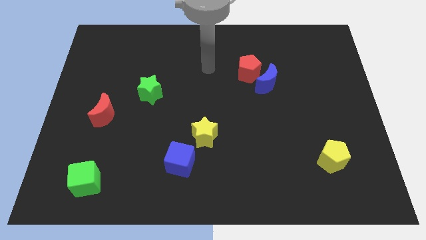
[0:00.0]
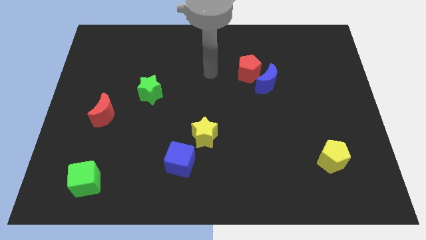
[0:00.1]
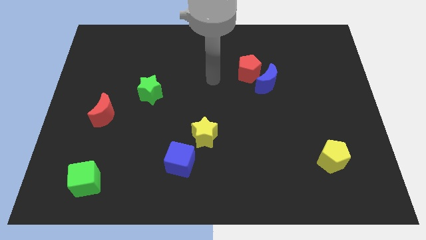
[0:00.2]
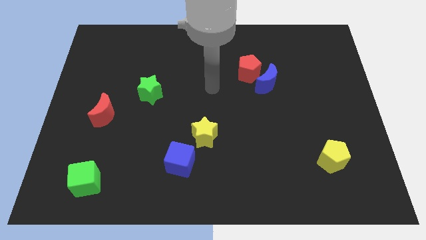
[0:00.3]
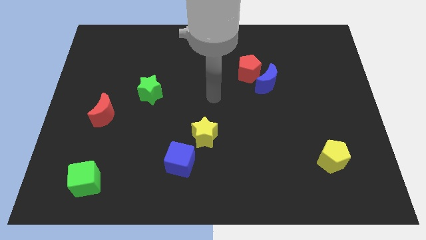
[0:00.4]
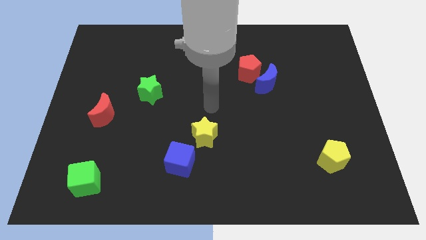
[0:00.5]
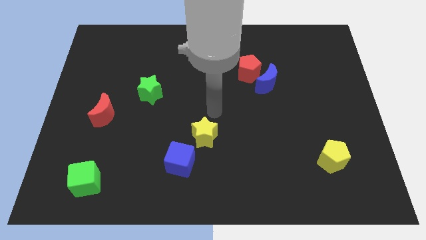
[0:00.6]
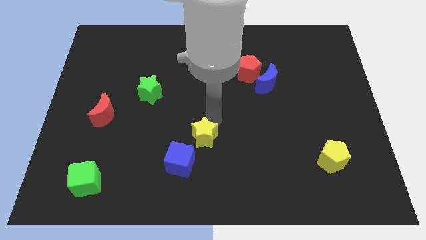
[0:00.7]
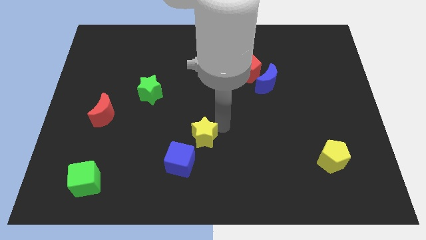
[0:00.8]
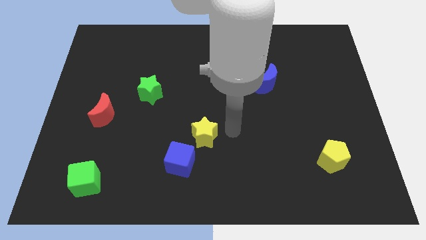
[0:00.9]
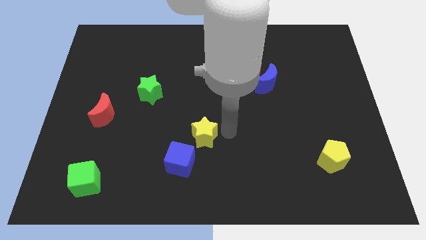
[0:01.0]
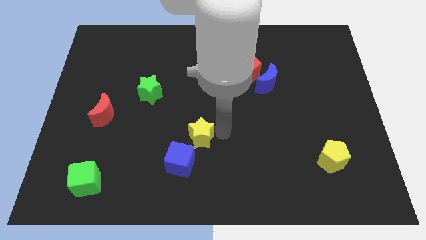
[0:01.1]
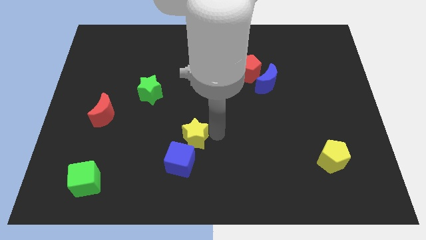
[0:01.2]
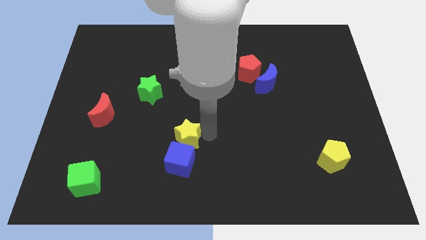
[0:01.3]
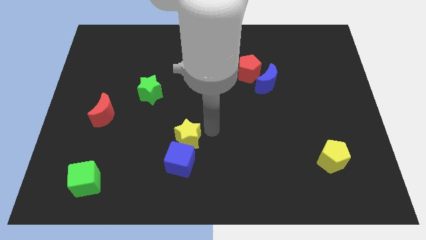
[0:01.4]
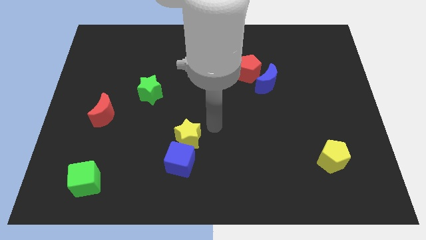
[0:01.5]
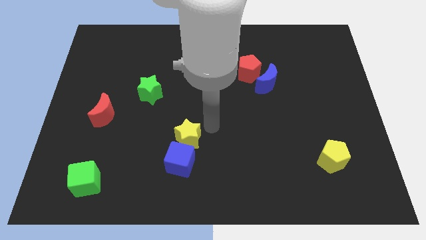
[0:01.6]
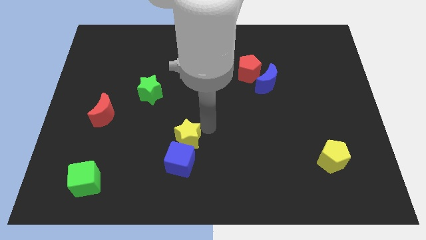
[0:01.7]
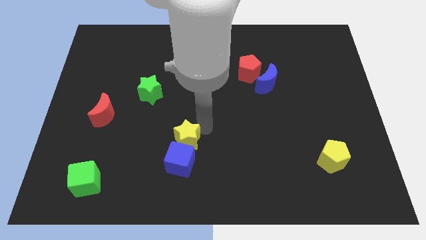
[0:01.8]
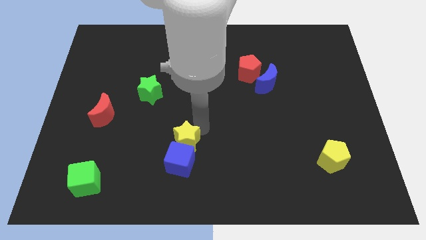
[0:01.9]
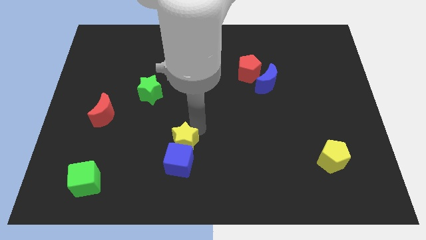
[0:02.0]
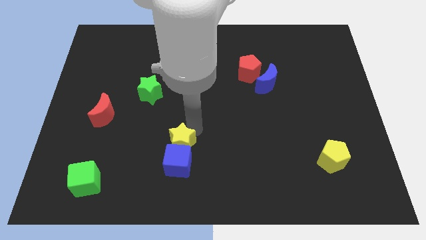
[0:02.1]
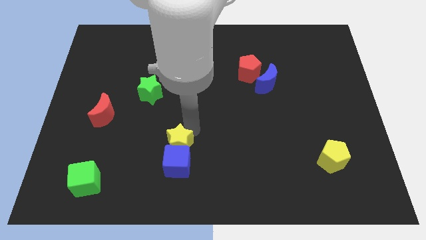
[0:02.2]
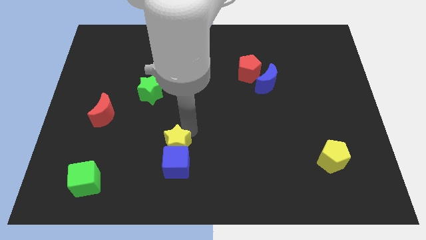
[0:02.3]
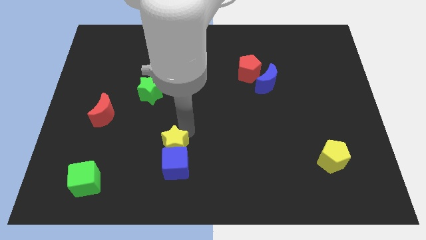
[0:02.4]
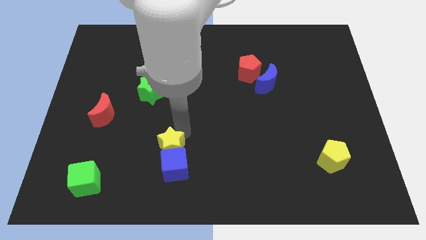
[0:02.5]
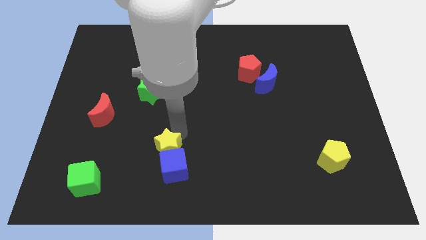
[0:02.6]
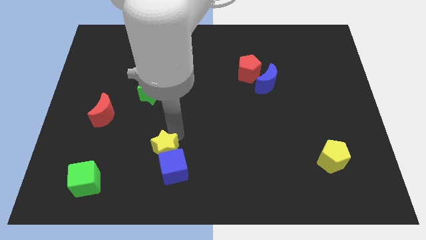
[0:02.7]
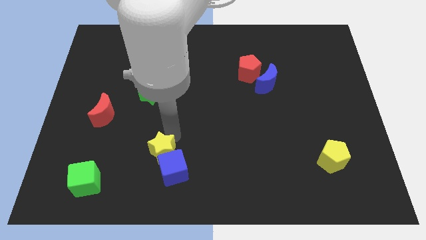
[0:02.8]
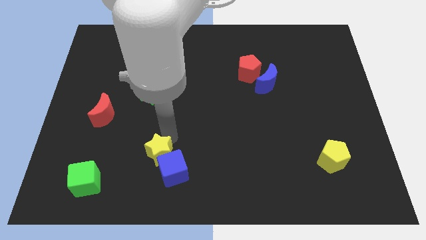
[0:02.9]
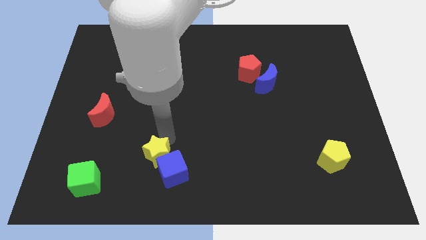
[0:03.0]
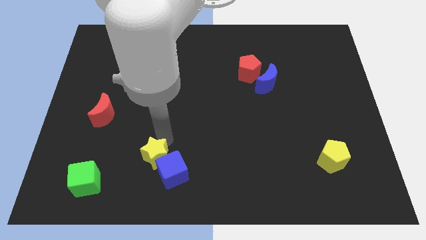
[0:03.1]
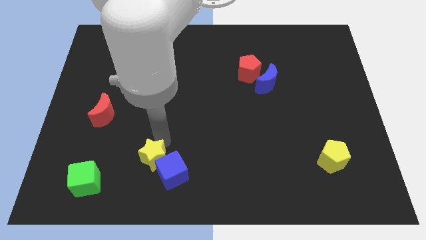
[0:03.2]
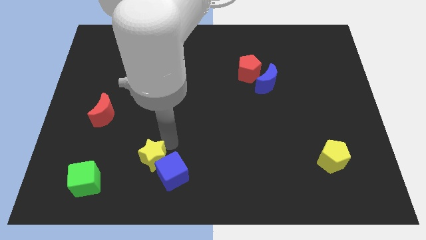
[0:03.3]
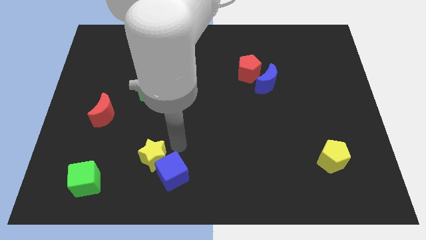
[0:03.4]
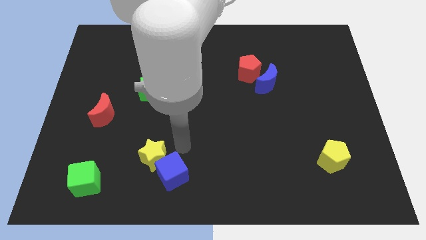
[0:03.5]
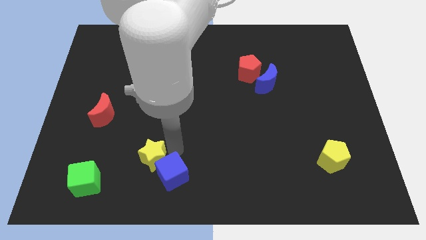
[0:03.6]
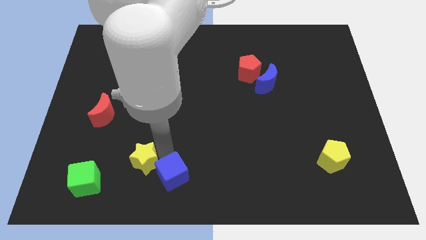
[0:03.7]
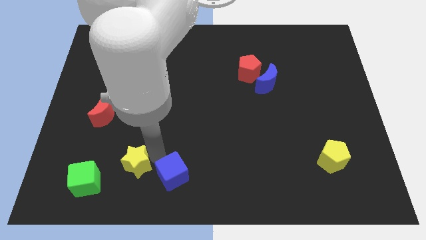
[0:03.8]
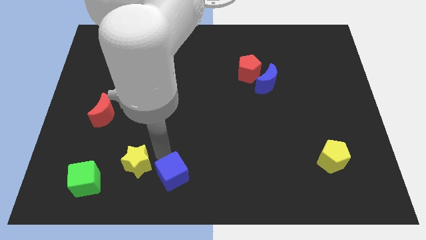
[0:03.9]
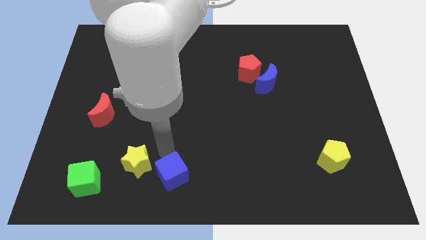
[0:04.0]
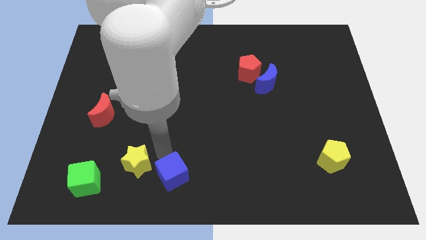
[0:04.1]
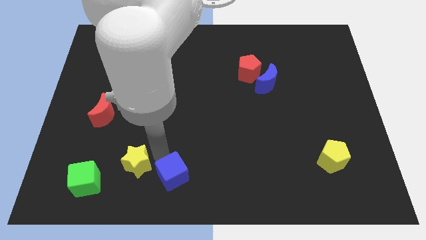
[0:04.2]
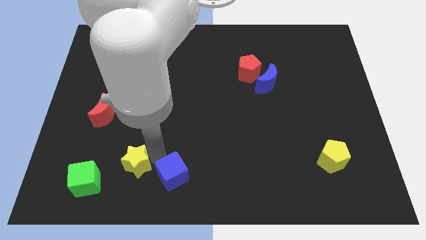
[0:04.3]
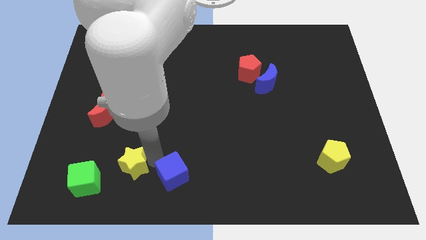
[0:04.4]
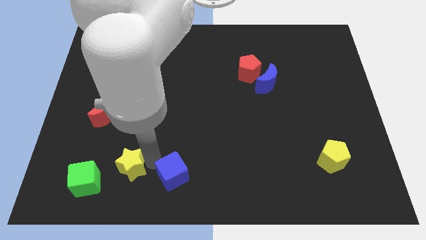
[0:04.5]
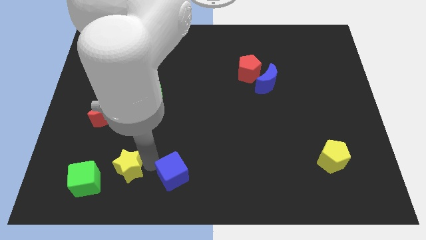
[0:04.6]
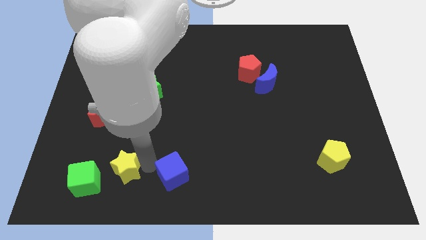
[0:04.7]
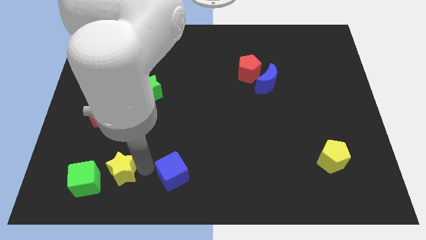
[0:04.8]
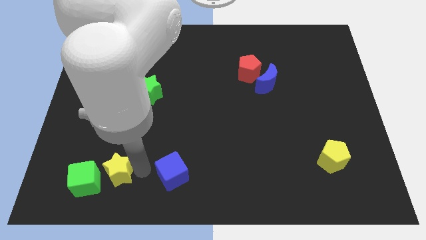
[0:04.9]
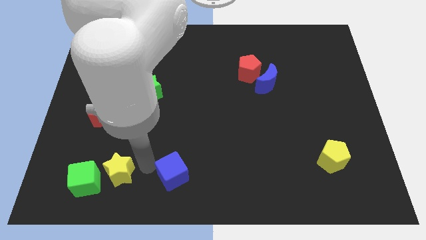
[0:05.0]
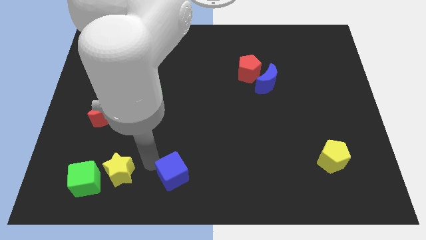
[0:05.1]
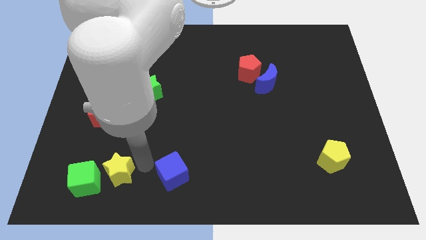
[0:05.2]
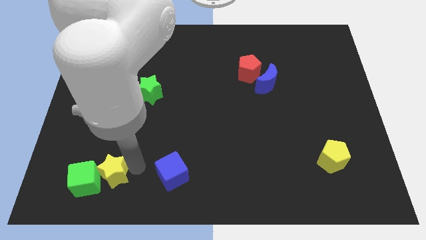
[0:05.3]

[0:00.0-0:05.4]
move the yellow star close to the green cube

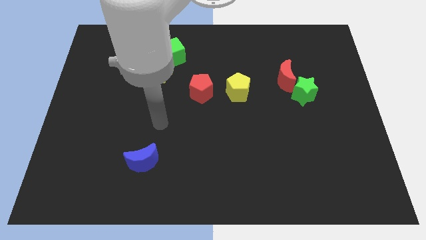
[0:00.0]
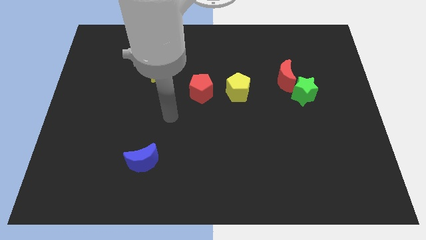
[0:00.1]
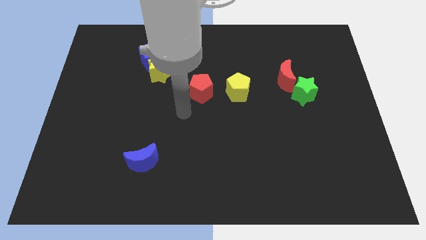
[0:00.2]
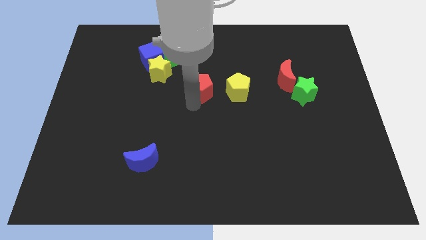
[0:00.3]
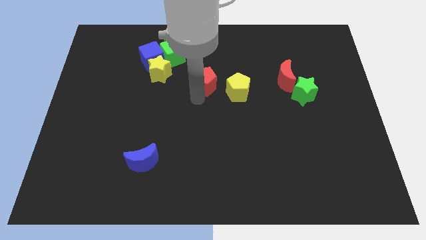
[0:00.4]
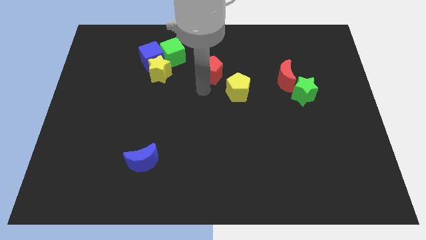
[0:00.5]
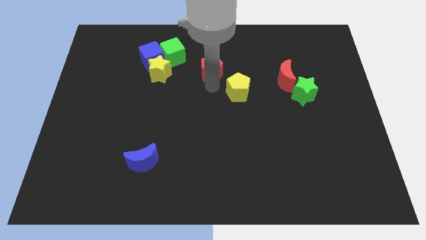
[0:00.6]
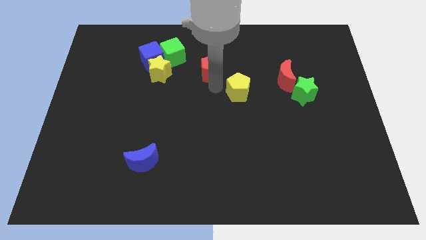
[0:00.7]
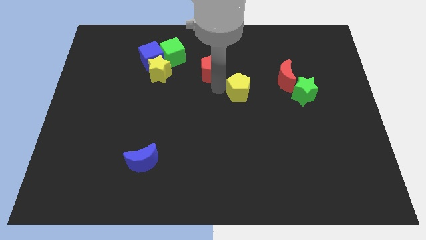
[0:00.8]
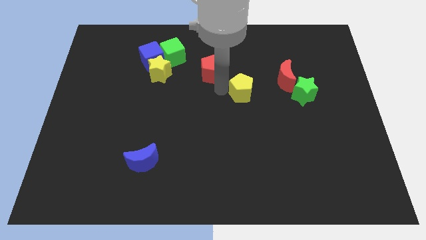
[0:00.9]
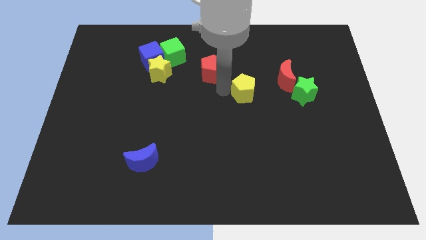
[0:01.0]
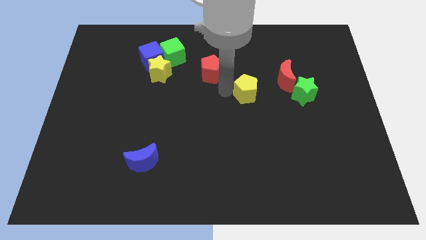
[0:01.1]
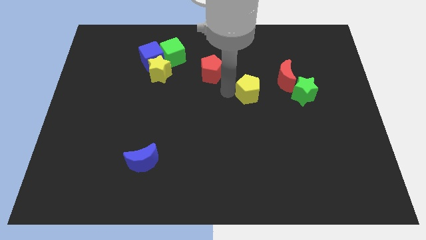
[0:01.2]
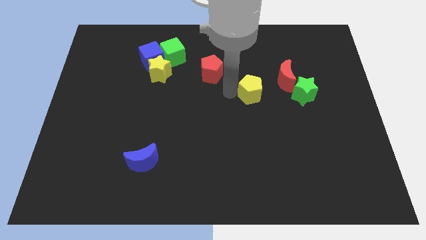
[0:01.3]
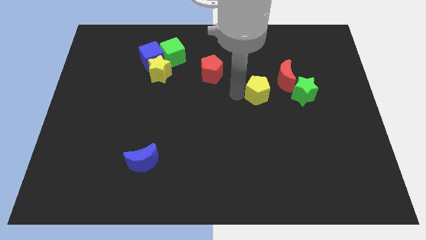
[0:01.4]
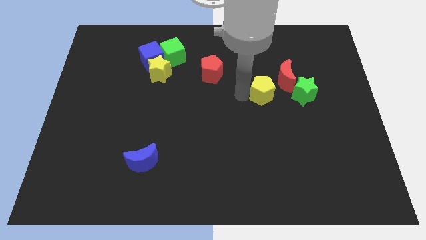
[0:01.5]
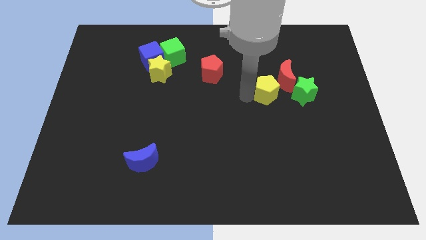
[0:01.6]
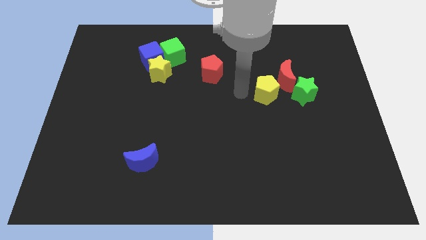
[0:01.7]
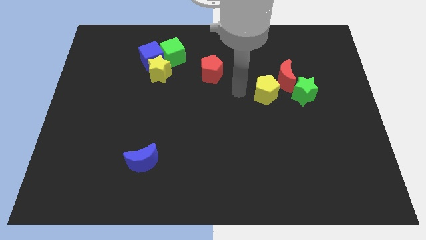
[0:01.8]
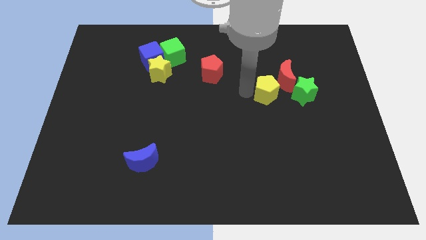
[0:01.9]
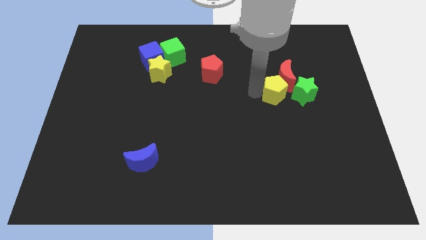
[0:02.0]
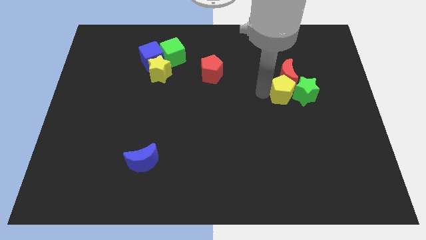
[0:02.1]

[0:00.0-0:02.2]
push the yellow pentagon close to the green star
